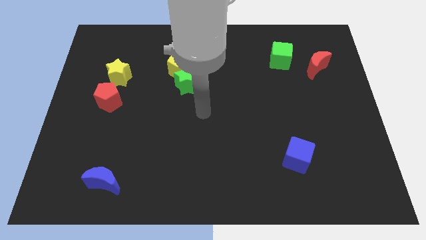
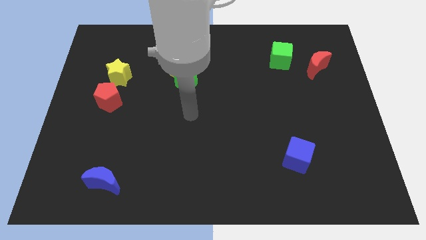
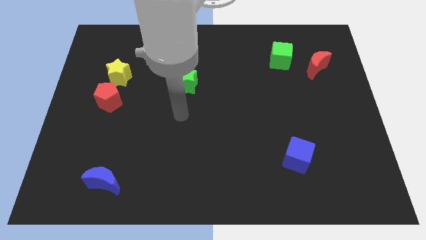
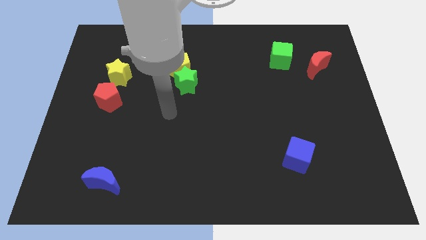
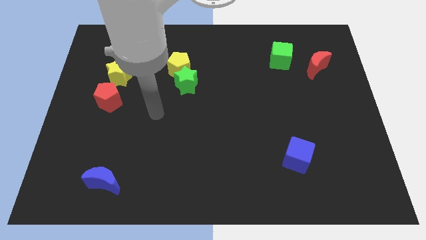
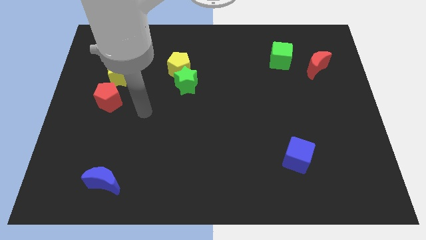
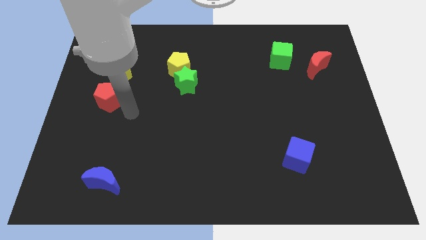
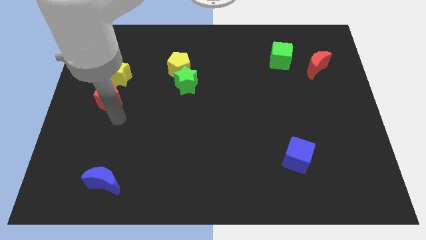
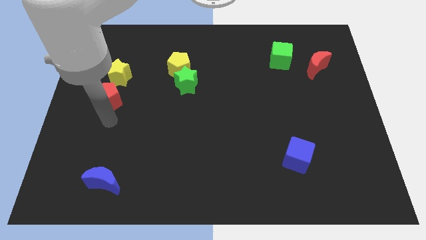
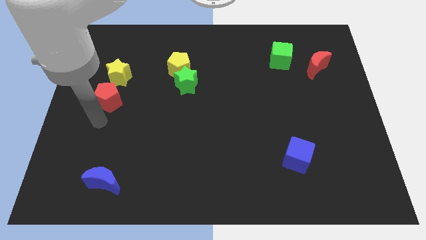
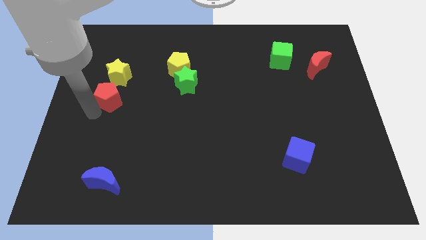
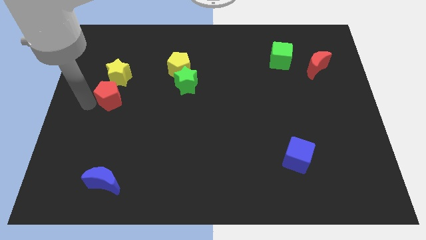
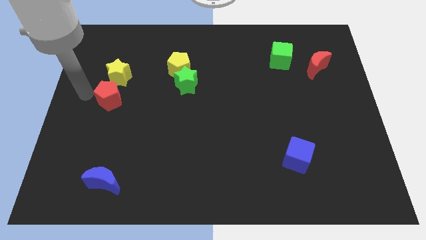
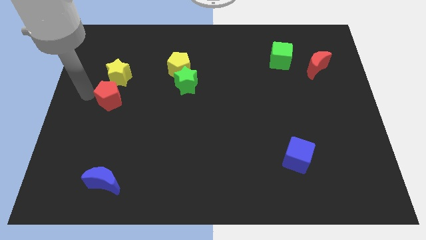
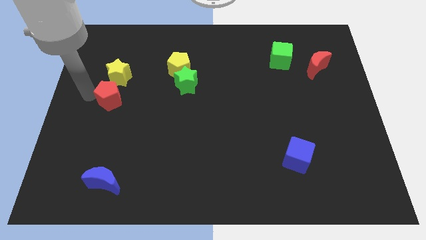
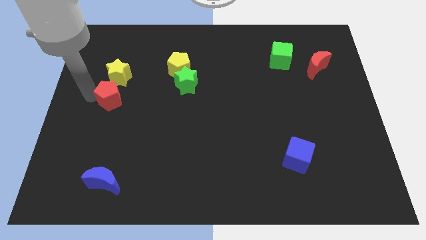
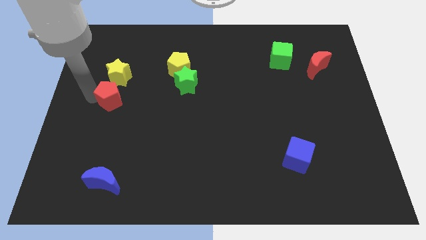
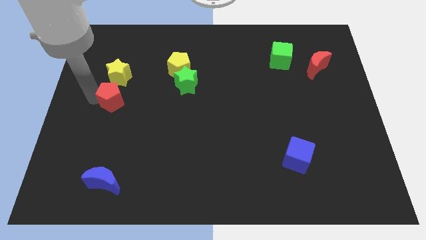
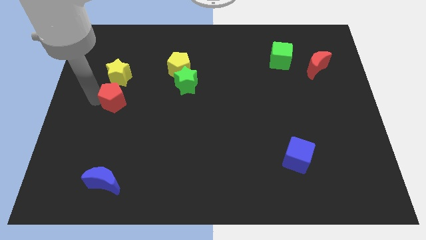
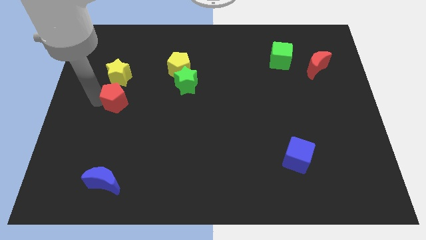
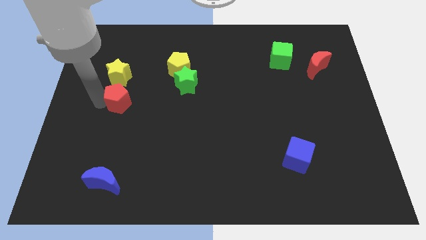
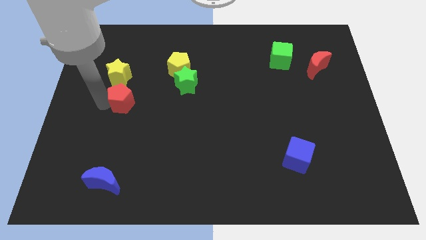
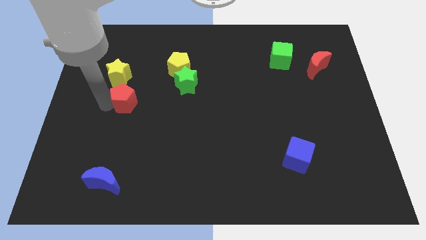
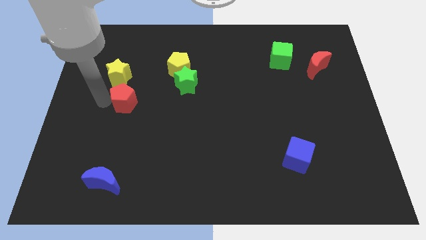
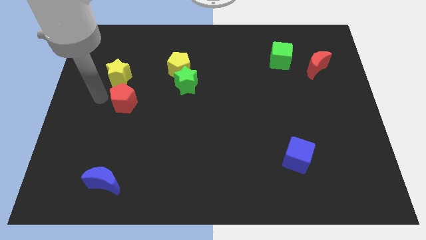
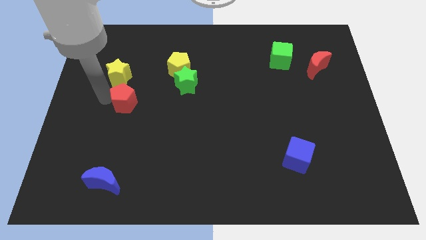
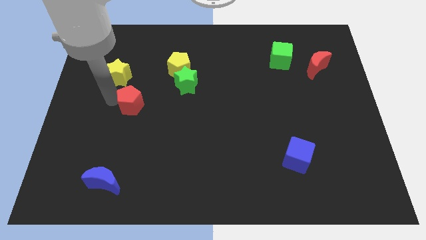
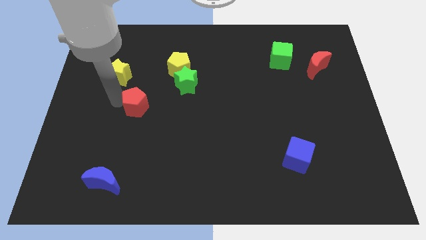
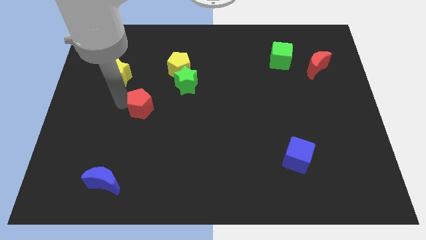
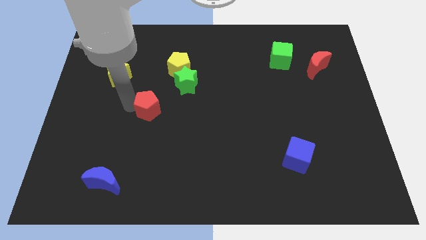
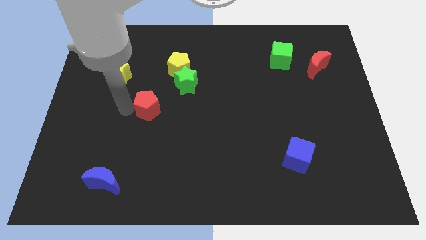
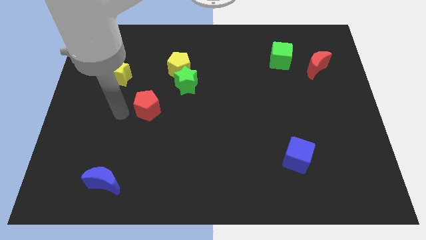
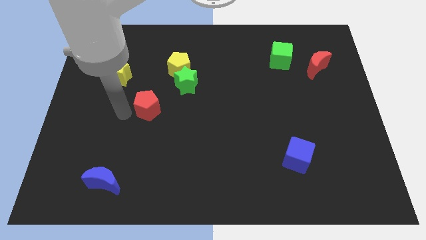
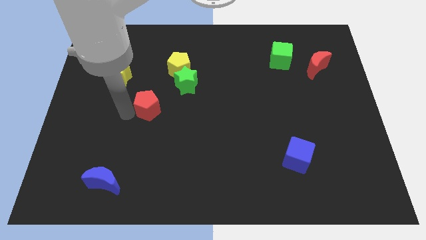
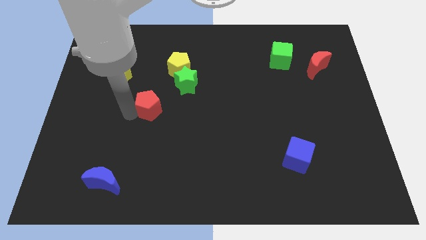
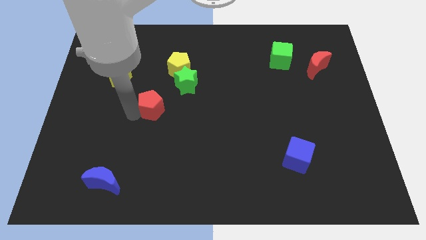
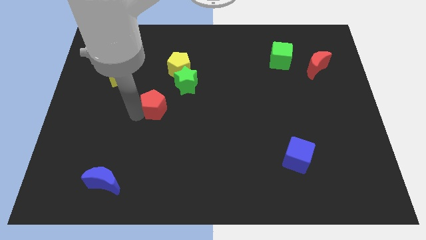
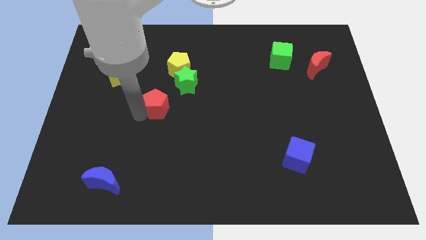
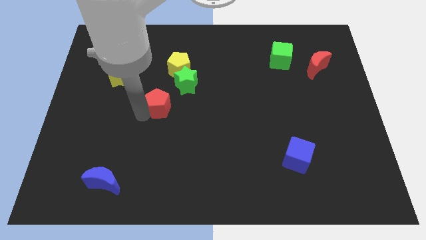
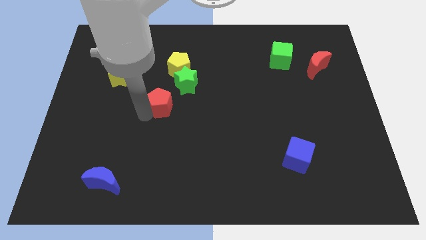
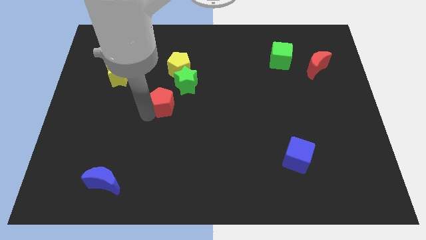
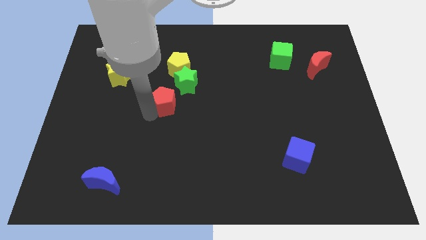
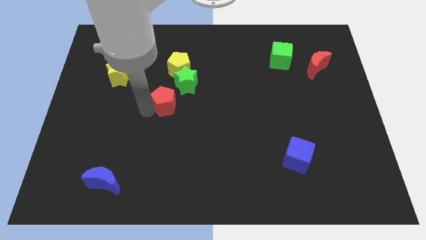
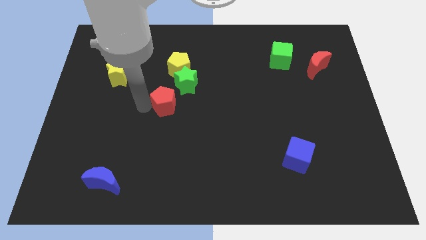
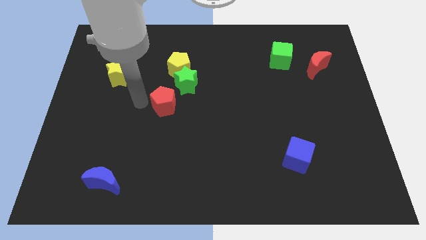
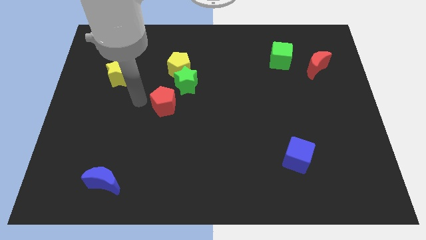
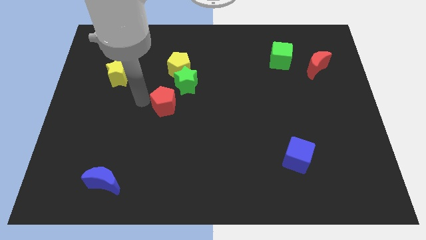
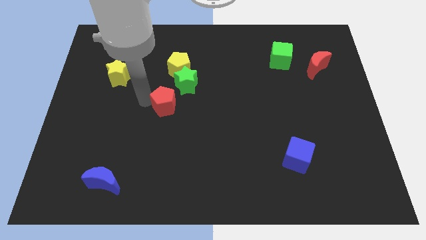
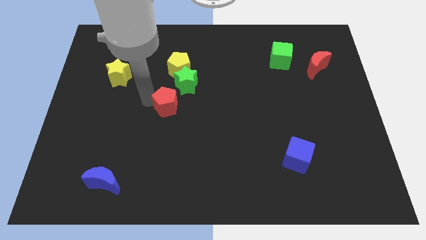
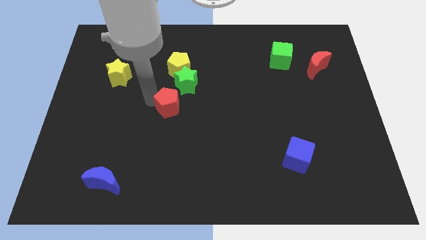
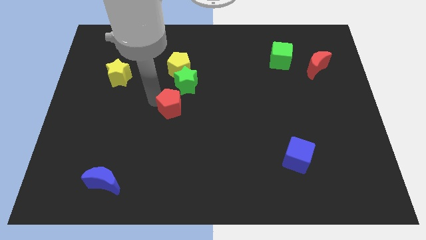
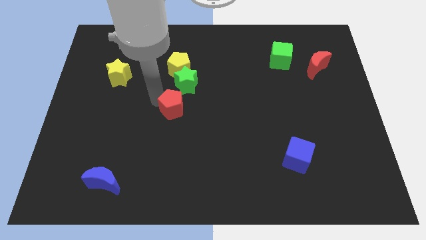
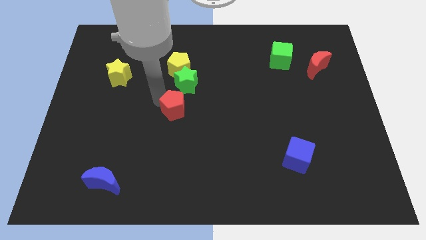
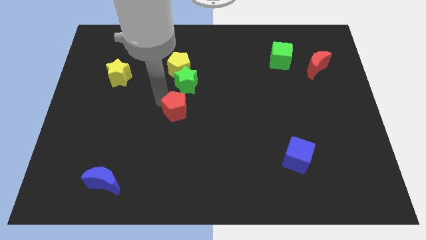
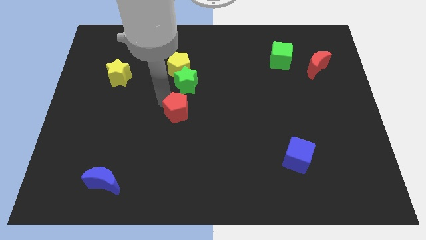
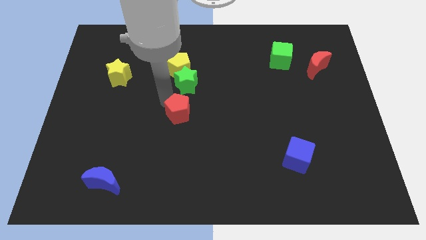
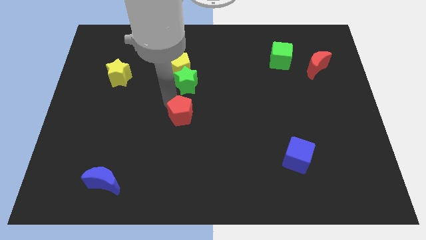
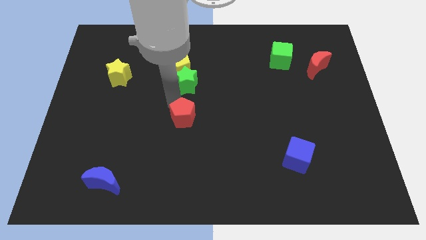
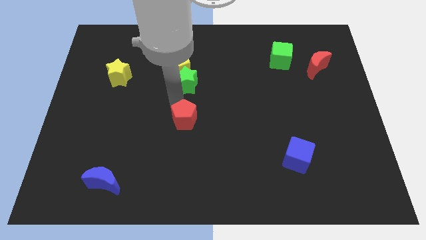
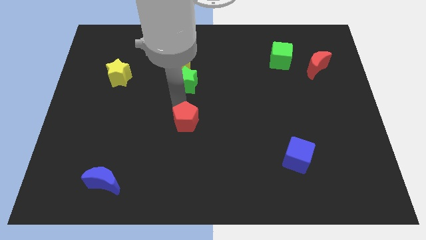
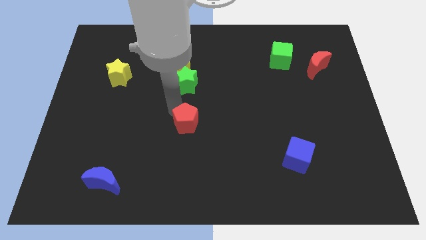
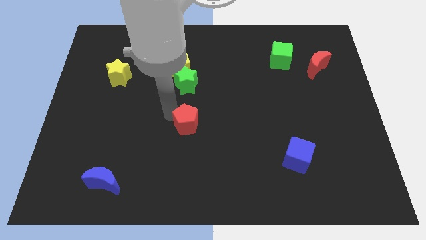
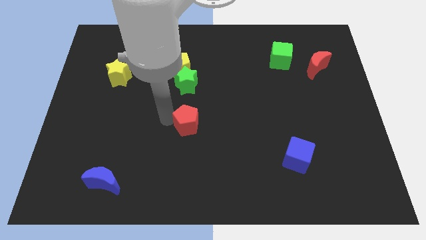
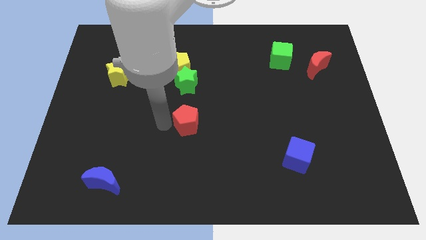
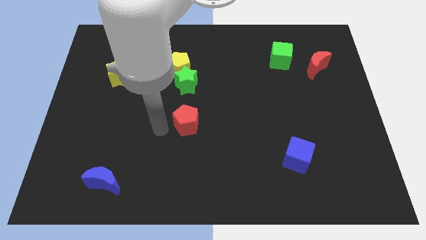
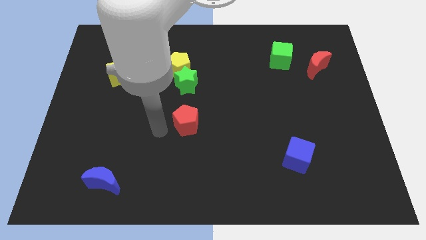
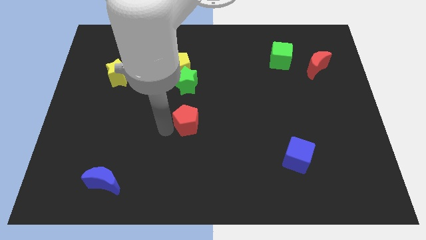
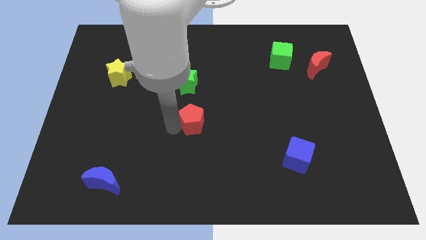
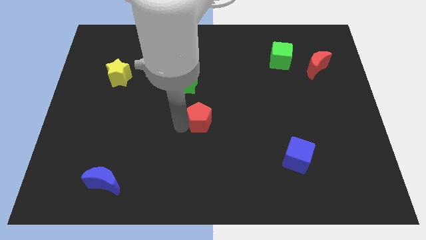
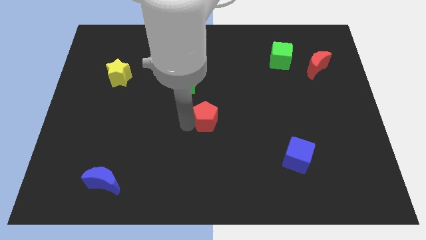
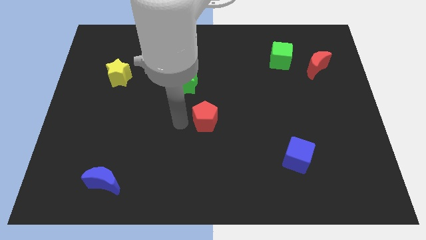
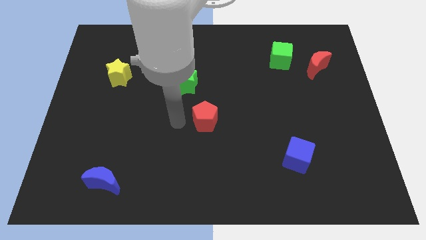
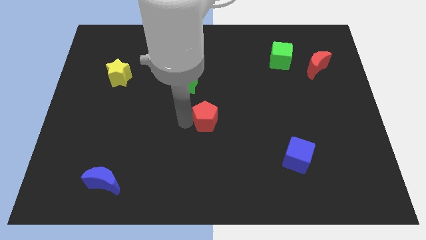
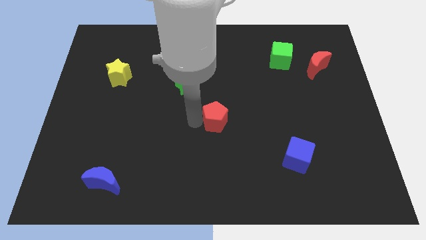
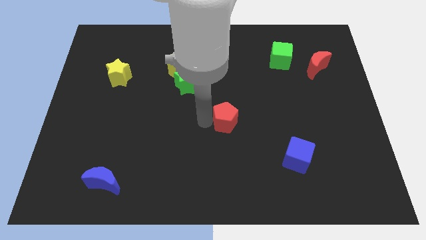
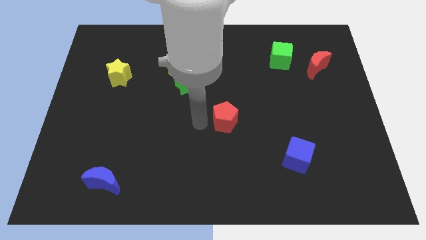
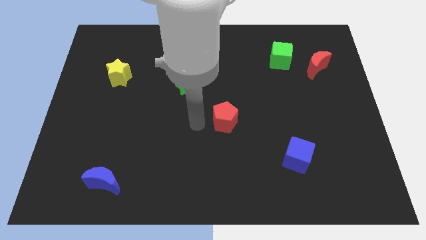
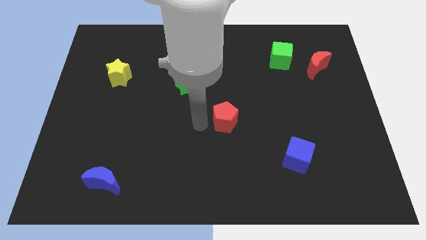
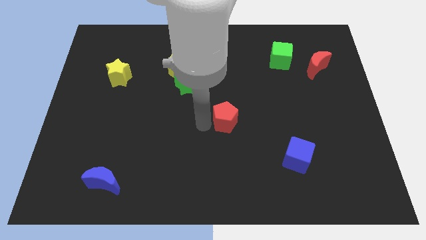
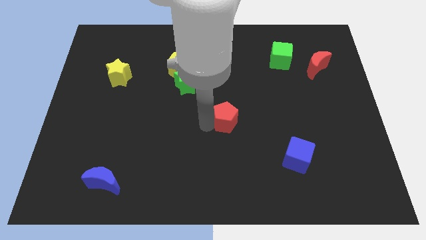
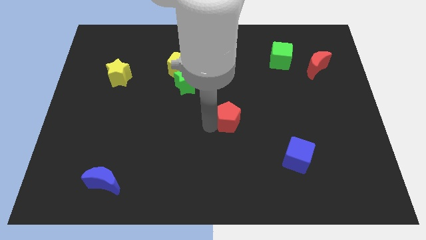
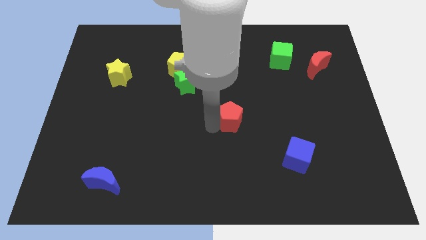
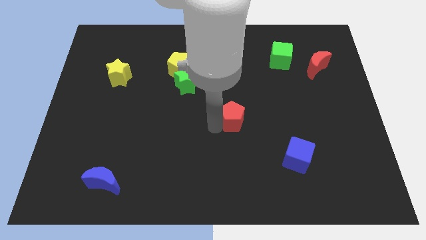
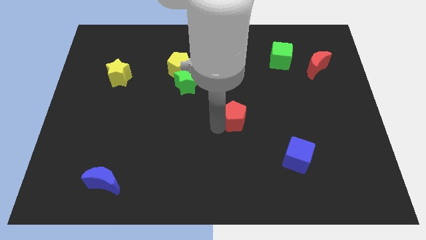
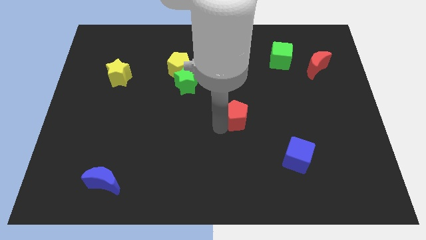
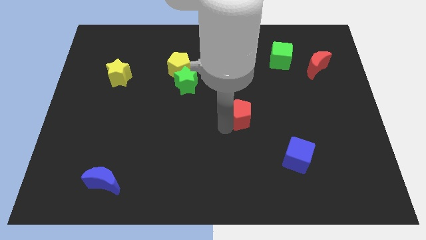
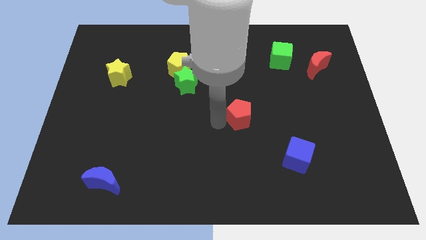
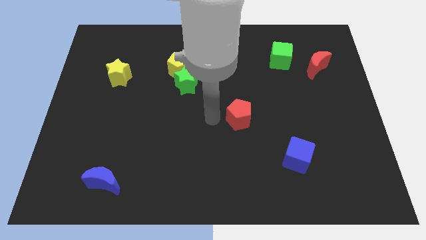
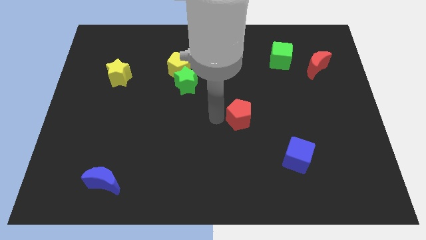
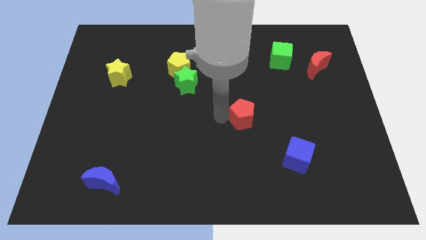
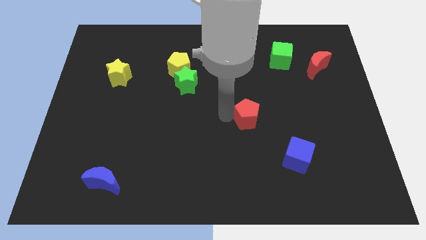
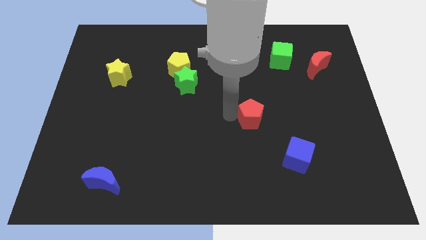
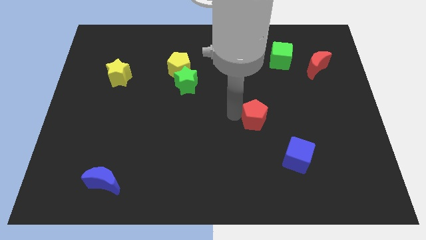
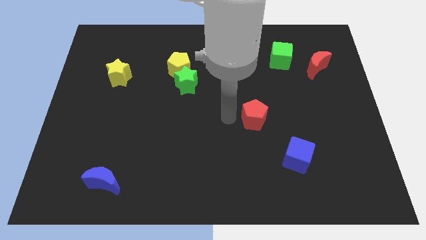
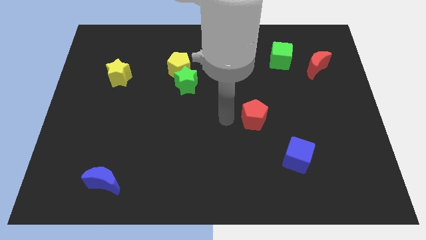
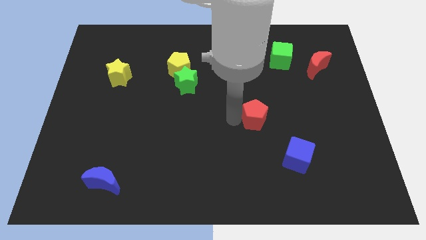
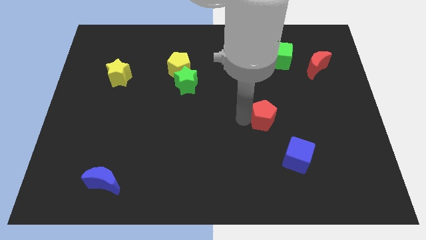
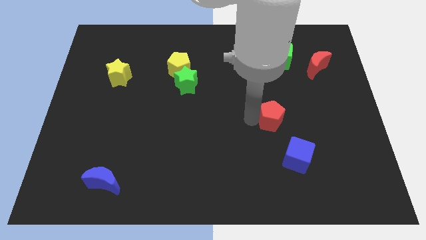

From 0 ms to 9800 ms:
move the red pentagon to the top of the blue cube
